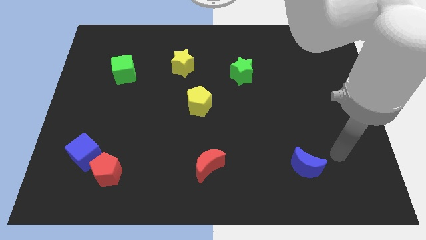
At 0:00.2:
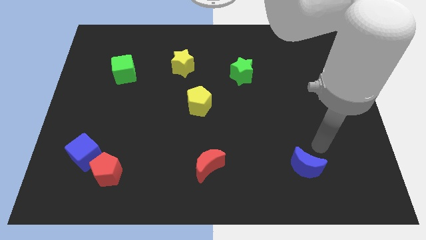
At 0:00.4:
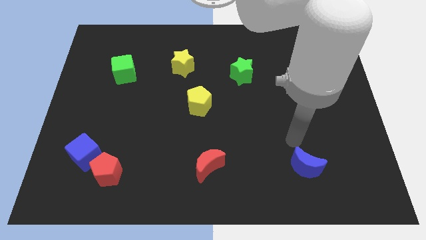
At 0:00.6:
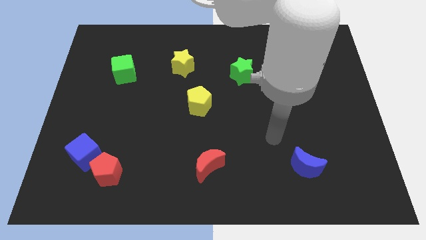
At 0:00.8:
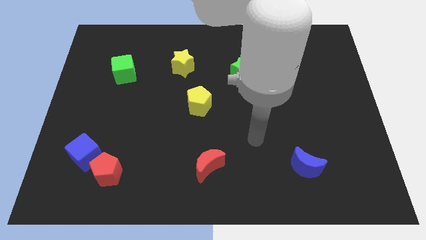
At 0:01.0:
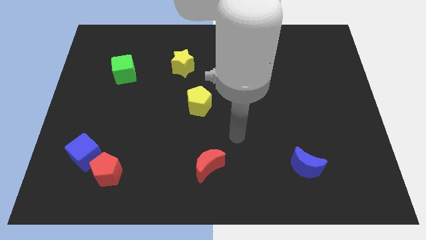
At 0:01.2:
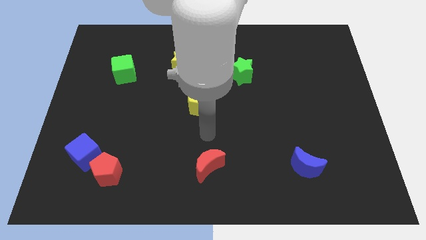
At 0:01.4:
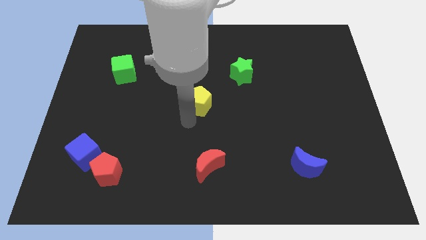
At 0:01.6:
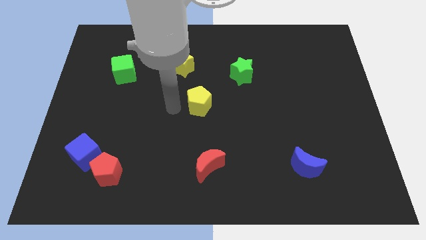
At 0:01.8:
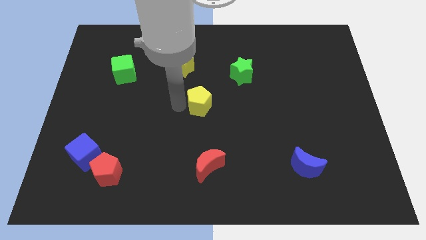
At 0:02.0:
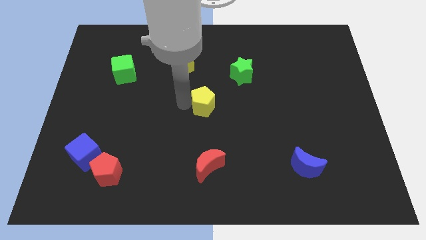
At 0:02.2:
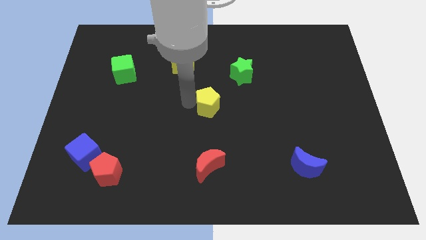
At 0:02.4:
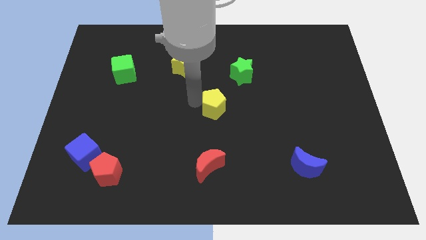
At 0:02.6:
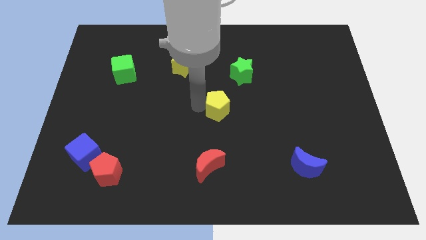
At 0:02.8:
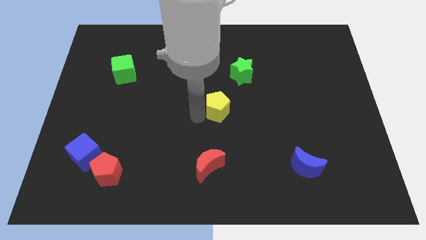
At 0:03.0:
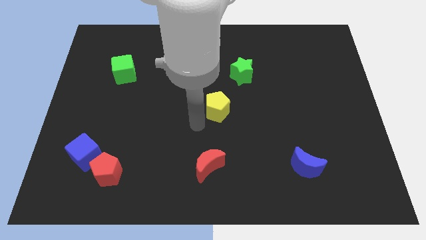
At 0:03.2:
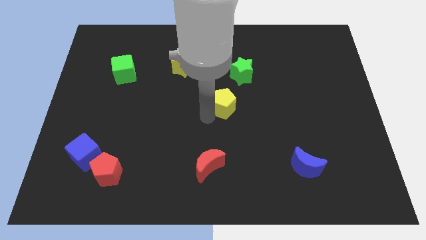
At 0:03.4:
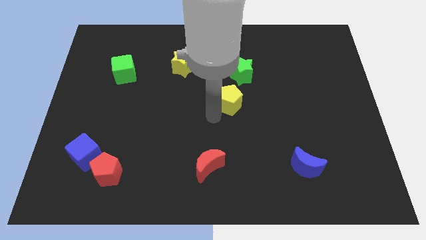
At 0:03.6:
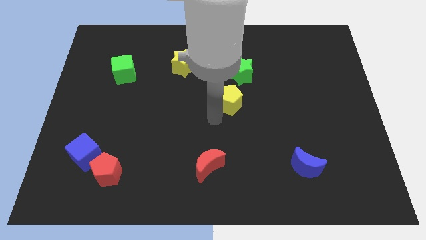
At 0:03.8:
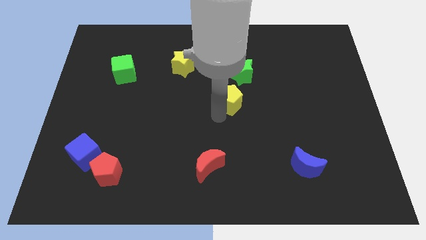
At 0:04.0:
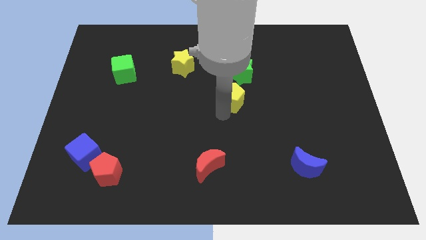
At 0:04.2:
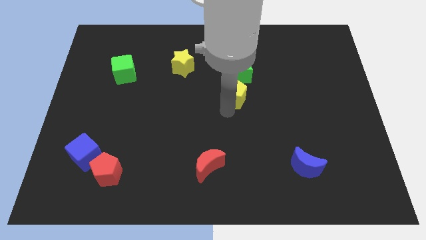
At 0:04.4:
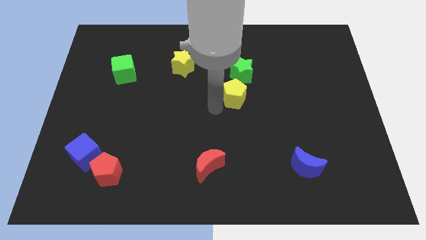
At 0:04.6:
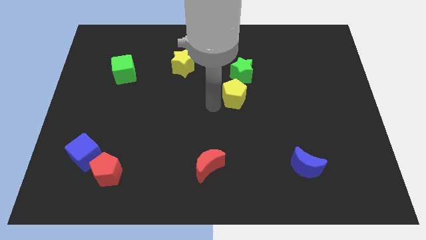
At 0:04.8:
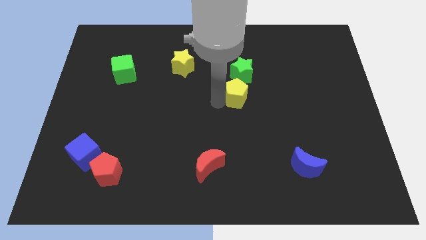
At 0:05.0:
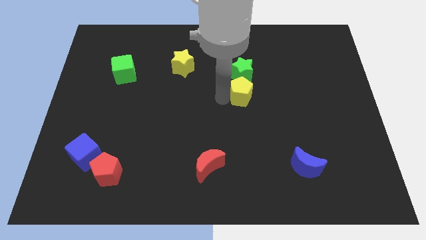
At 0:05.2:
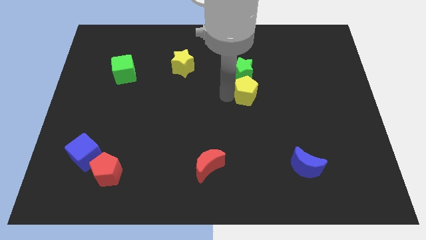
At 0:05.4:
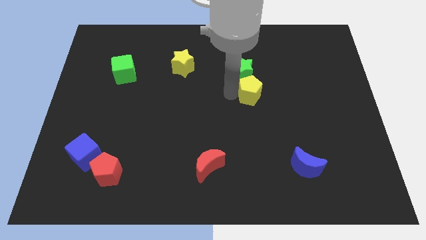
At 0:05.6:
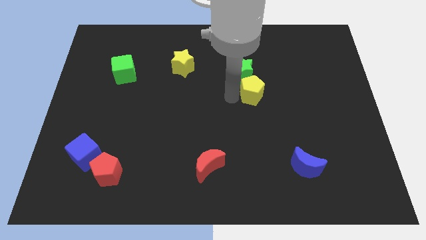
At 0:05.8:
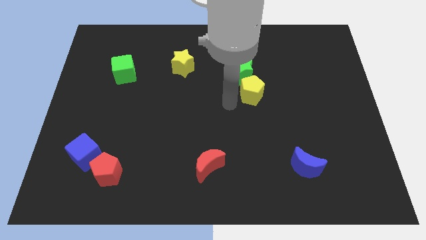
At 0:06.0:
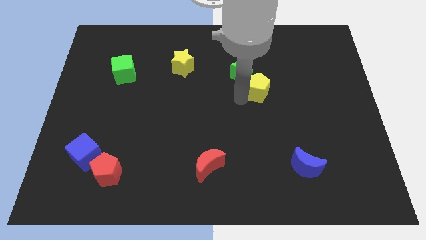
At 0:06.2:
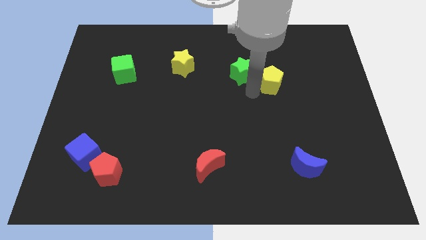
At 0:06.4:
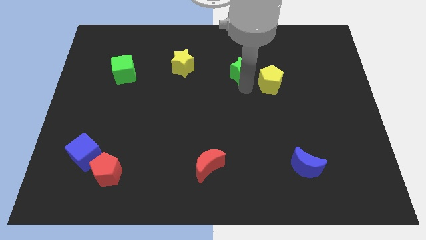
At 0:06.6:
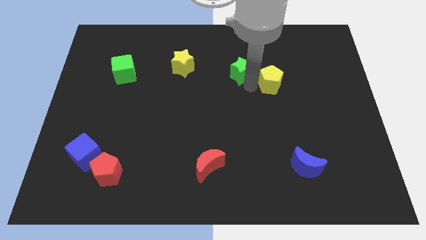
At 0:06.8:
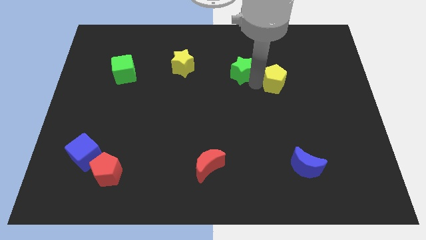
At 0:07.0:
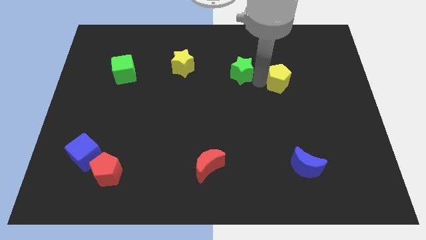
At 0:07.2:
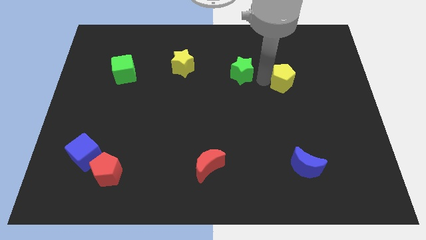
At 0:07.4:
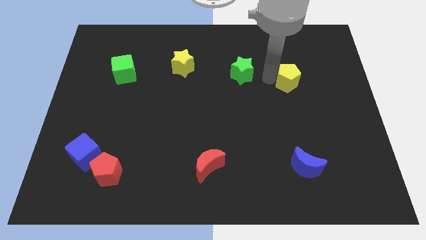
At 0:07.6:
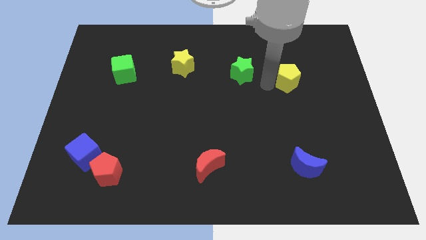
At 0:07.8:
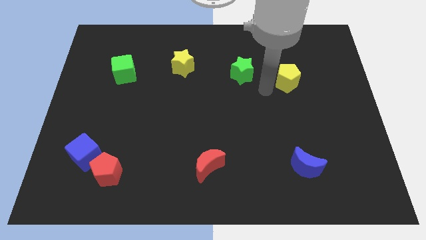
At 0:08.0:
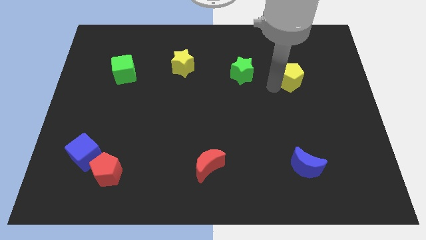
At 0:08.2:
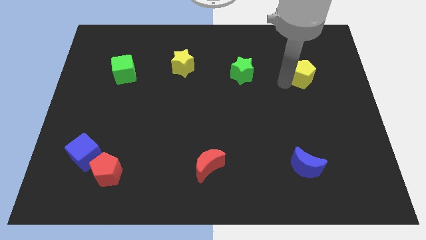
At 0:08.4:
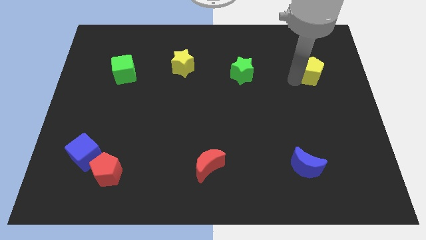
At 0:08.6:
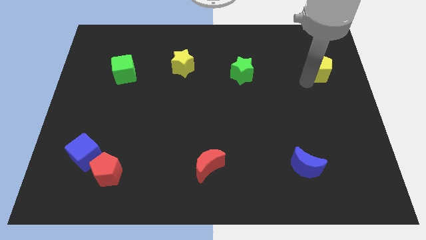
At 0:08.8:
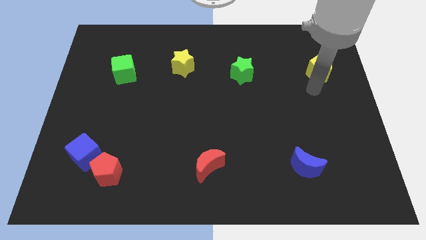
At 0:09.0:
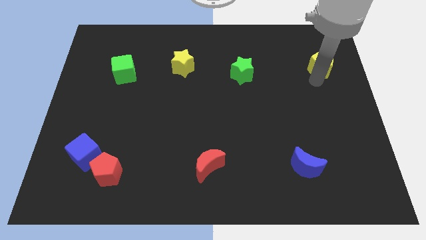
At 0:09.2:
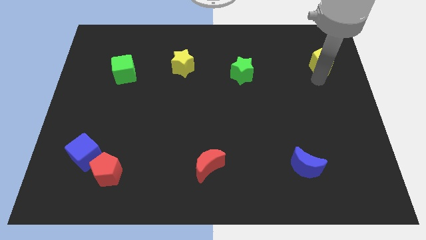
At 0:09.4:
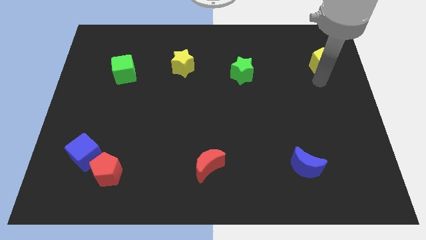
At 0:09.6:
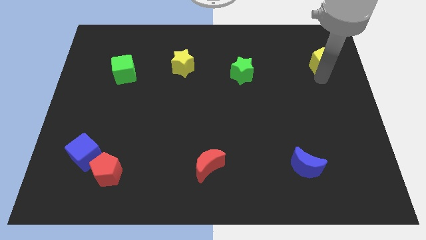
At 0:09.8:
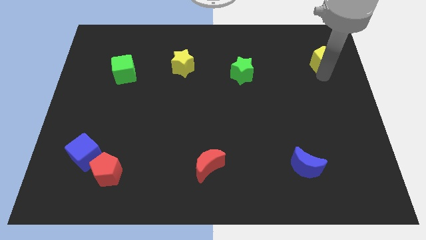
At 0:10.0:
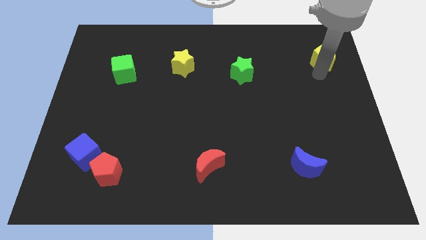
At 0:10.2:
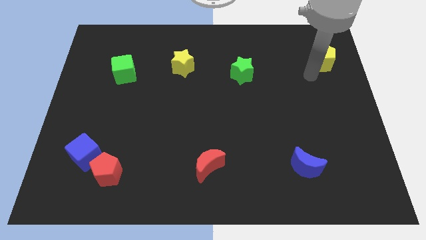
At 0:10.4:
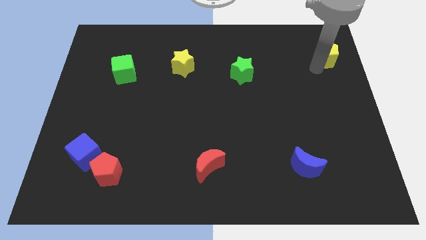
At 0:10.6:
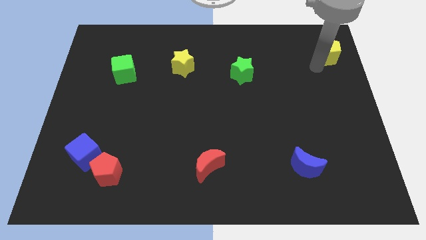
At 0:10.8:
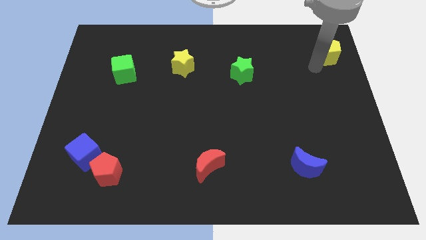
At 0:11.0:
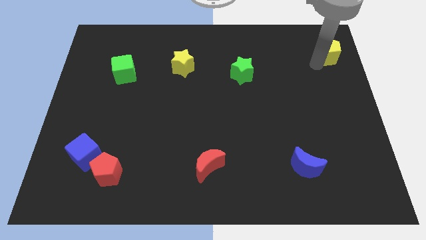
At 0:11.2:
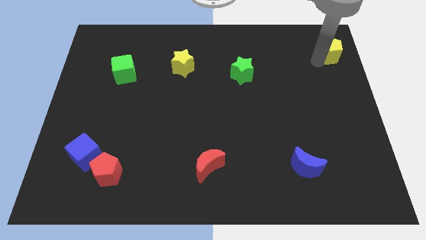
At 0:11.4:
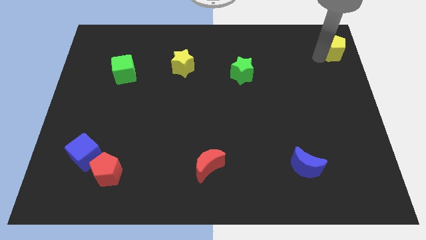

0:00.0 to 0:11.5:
put the yellow pentagon to the top right of the board

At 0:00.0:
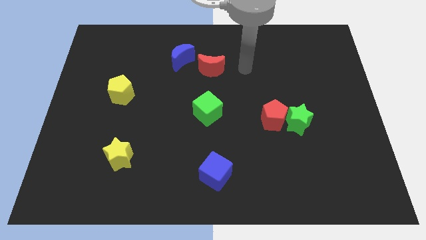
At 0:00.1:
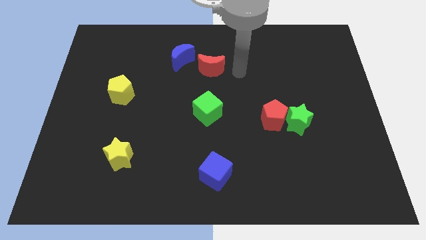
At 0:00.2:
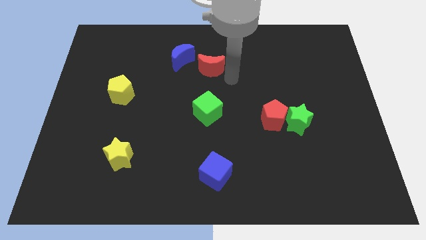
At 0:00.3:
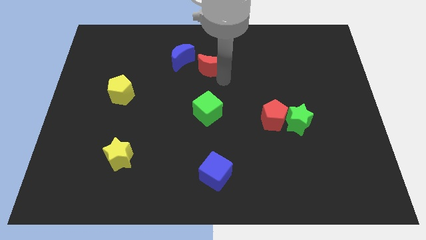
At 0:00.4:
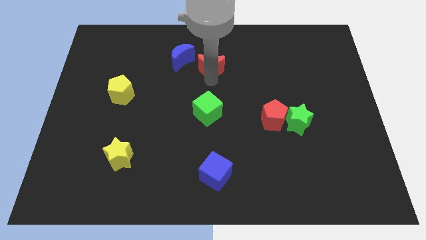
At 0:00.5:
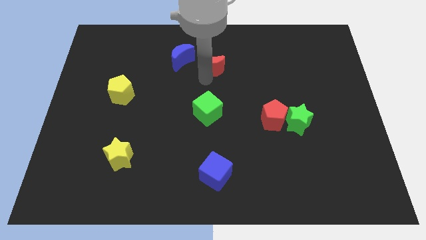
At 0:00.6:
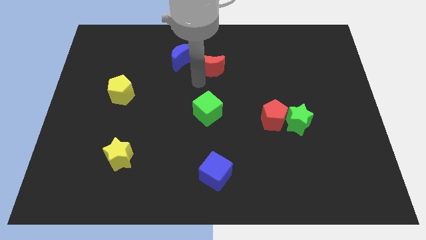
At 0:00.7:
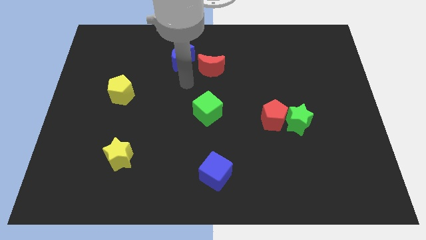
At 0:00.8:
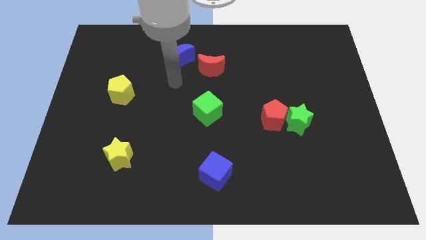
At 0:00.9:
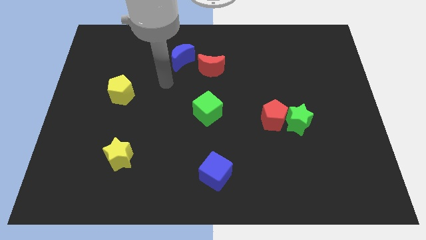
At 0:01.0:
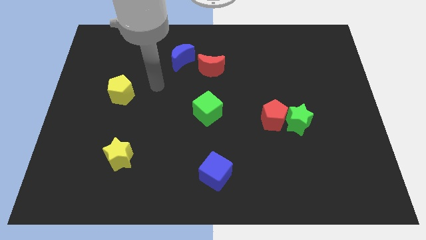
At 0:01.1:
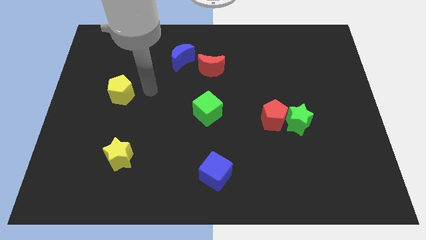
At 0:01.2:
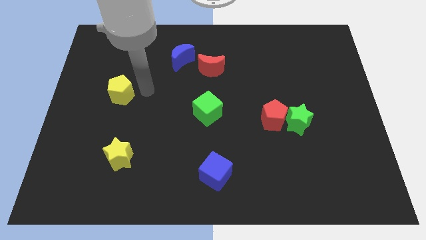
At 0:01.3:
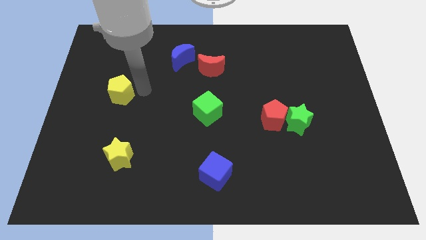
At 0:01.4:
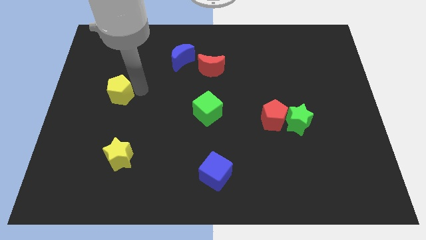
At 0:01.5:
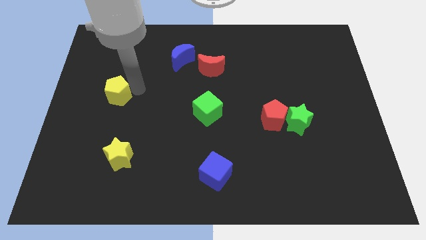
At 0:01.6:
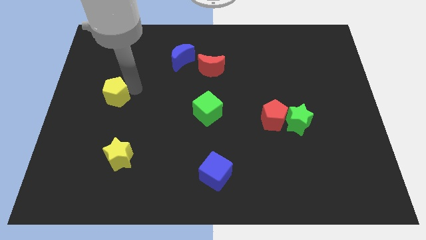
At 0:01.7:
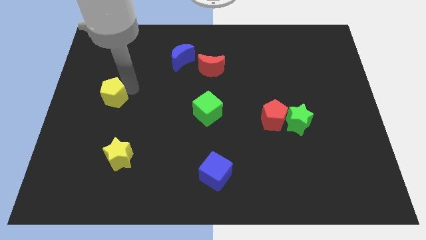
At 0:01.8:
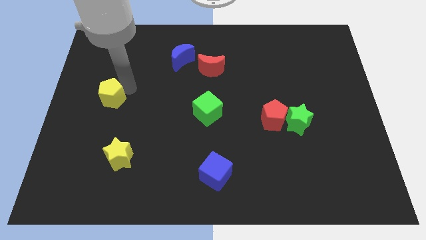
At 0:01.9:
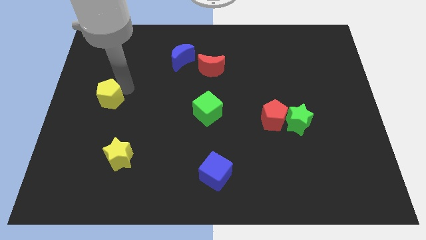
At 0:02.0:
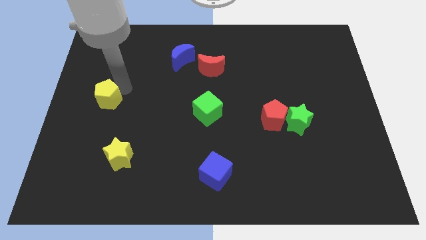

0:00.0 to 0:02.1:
put the yellow pentagon to the center left
